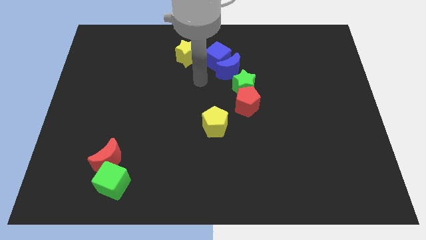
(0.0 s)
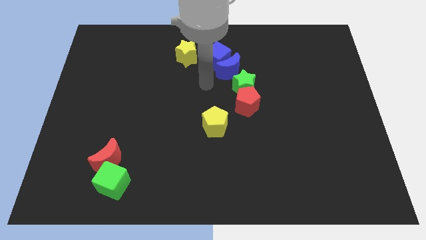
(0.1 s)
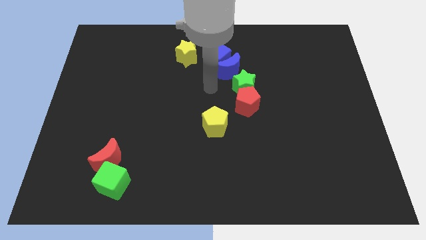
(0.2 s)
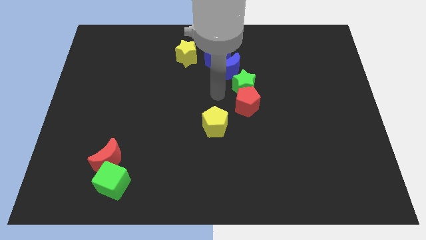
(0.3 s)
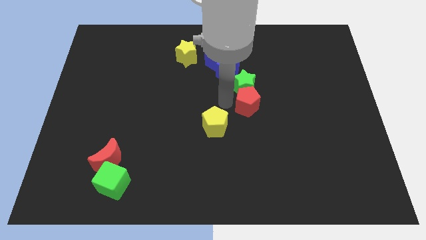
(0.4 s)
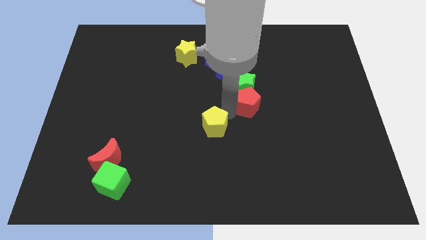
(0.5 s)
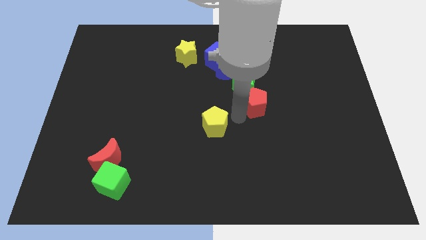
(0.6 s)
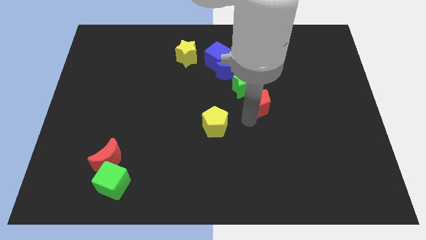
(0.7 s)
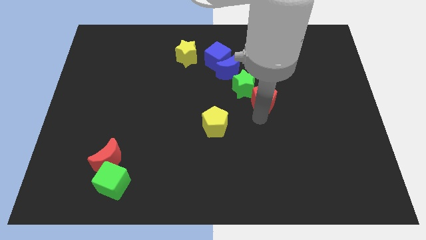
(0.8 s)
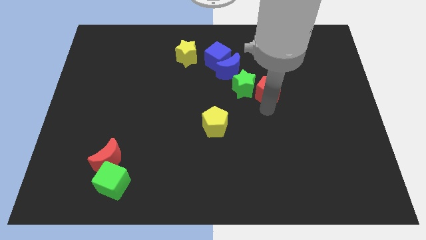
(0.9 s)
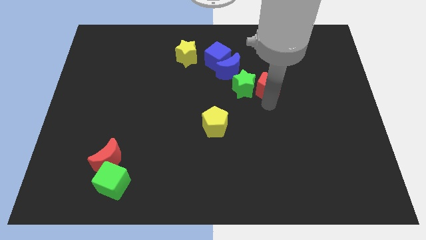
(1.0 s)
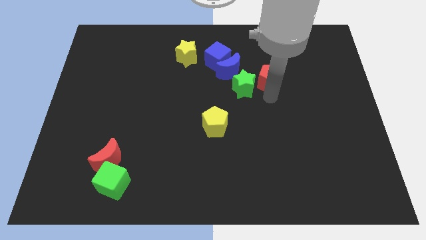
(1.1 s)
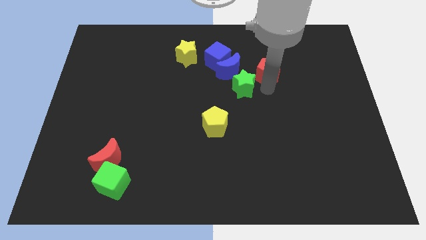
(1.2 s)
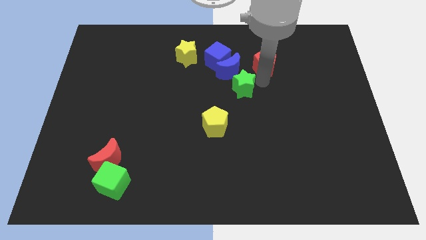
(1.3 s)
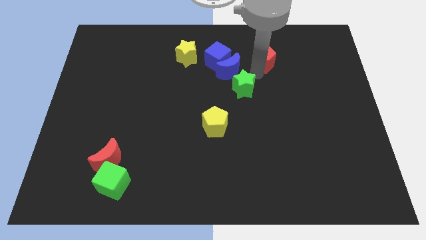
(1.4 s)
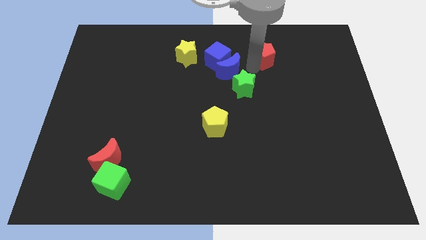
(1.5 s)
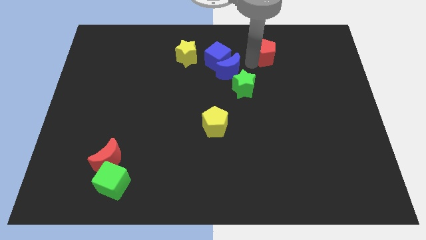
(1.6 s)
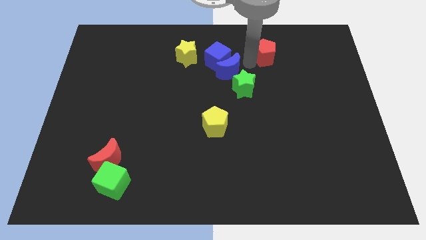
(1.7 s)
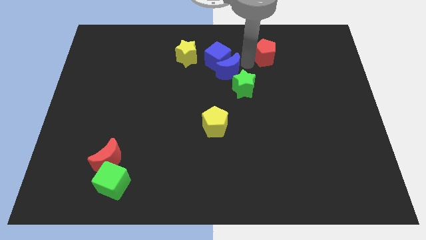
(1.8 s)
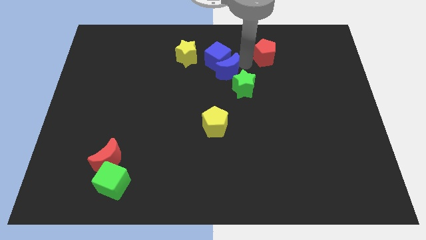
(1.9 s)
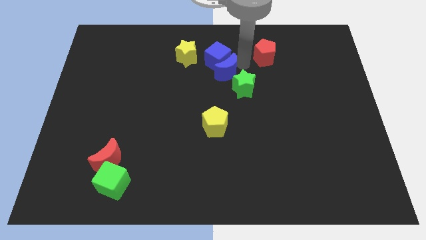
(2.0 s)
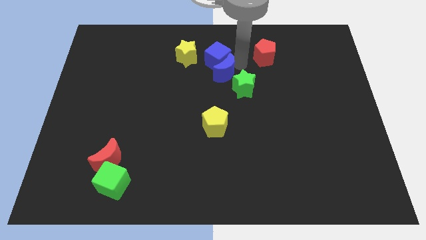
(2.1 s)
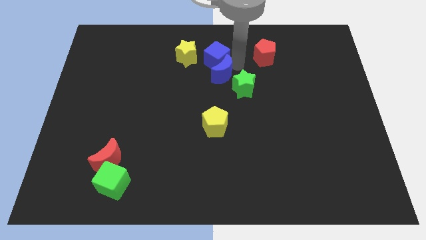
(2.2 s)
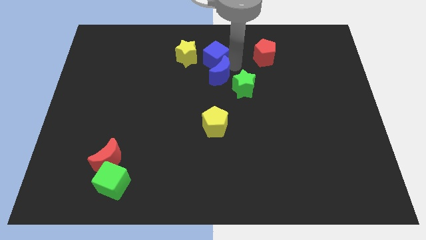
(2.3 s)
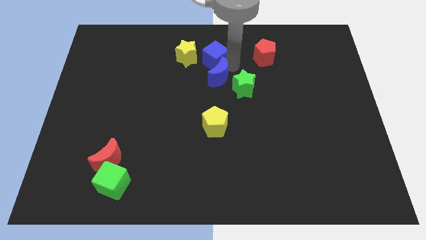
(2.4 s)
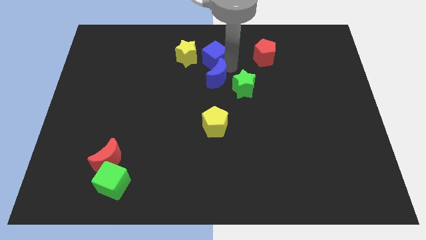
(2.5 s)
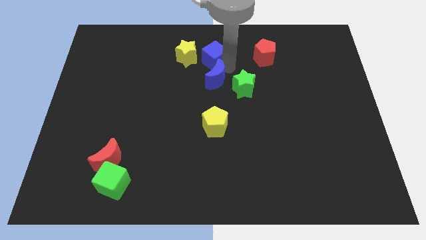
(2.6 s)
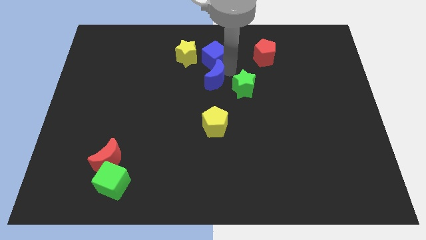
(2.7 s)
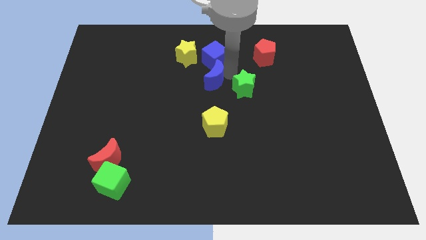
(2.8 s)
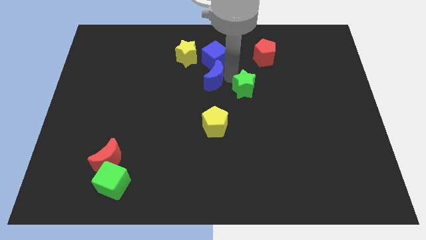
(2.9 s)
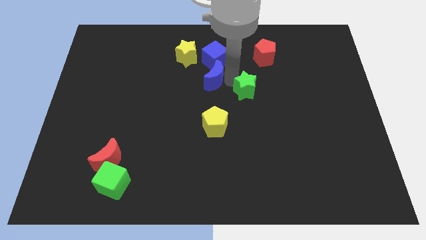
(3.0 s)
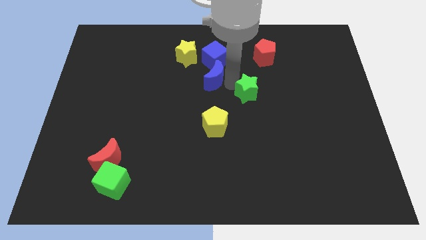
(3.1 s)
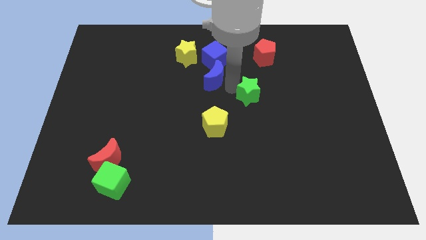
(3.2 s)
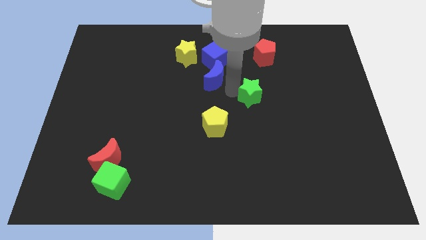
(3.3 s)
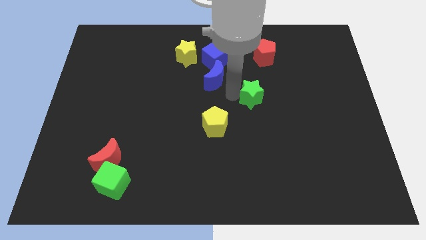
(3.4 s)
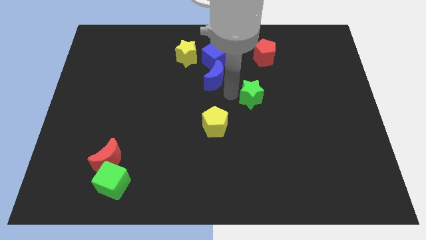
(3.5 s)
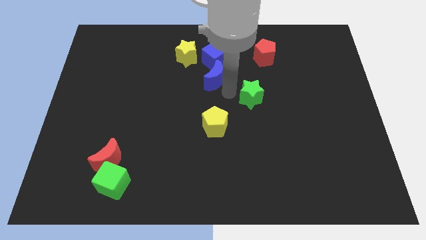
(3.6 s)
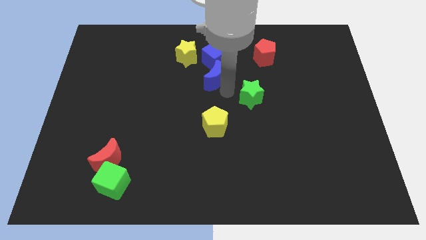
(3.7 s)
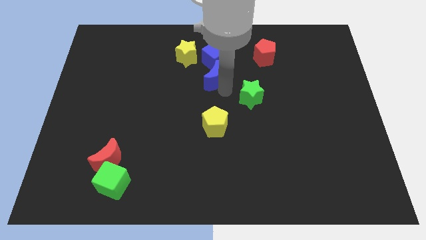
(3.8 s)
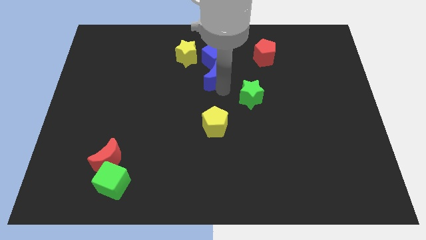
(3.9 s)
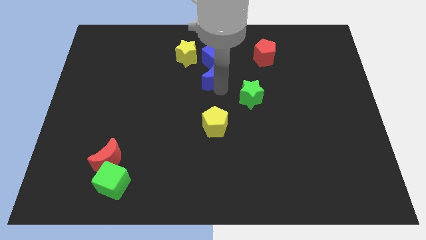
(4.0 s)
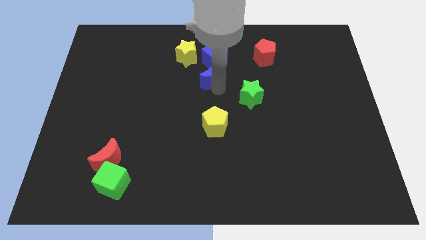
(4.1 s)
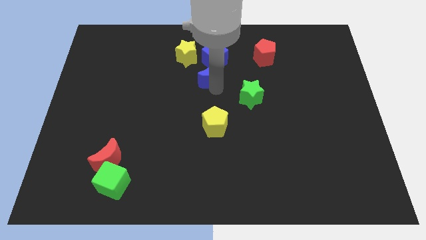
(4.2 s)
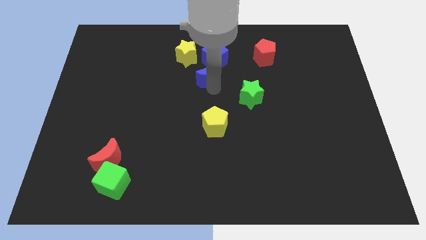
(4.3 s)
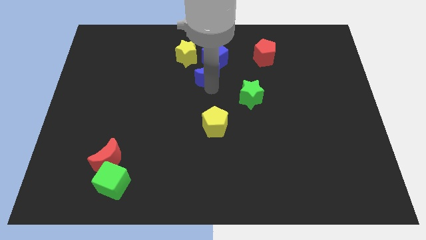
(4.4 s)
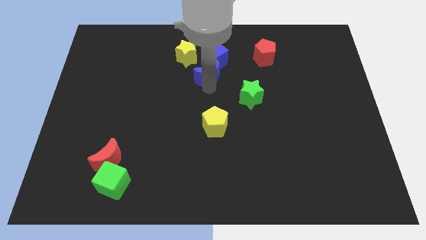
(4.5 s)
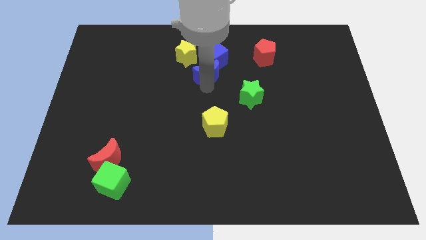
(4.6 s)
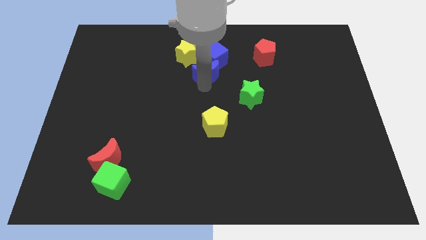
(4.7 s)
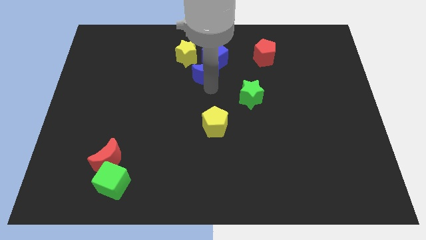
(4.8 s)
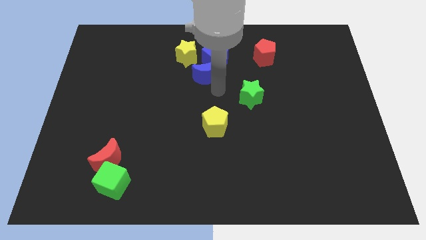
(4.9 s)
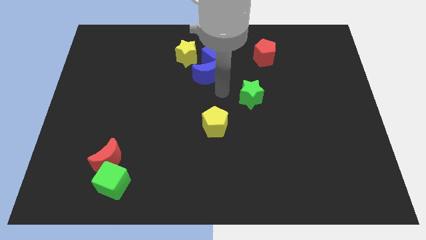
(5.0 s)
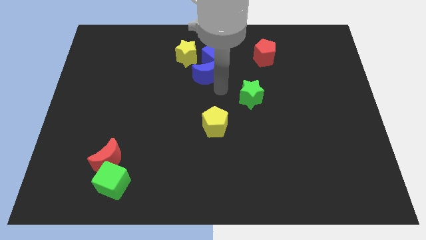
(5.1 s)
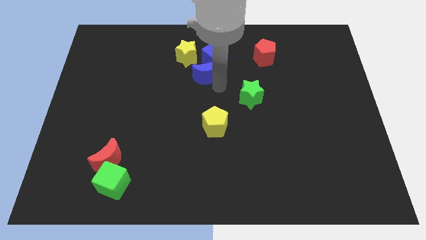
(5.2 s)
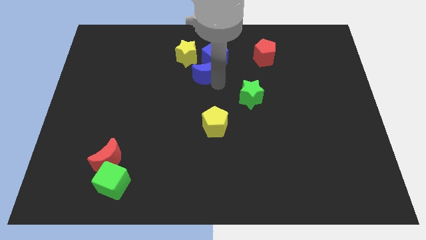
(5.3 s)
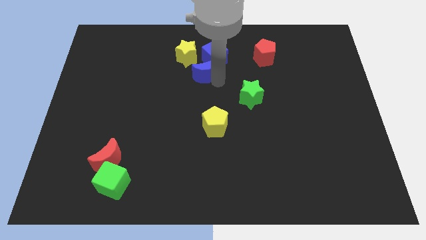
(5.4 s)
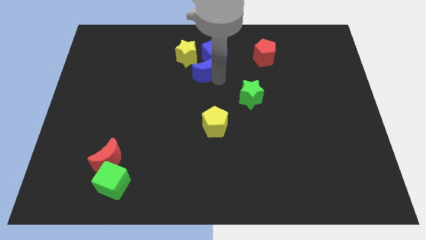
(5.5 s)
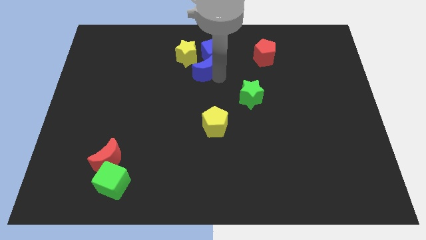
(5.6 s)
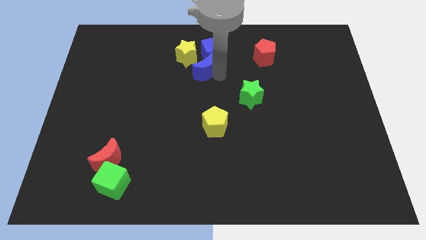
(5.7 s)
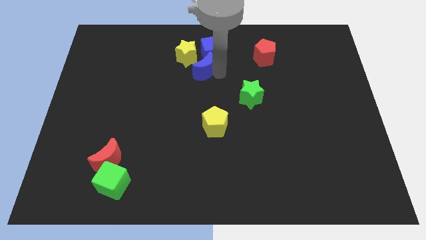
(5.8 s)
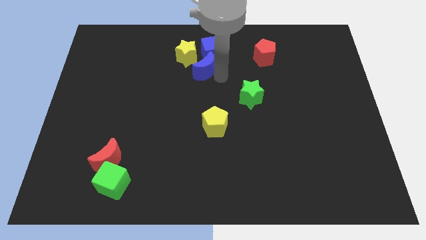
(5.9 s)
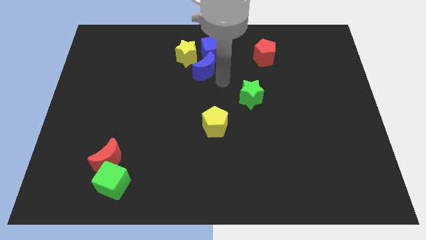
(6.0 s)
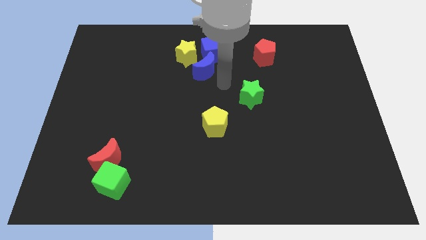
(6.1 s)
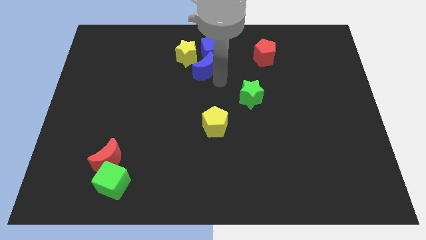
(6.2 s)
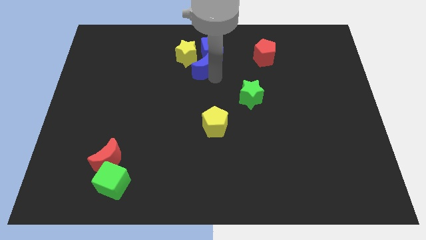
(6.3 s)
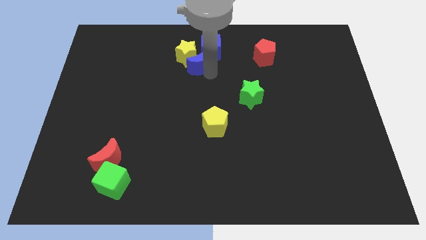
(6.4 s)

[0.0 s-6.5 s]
slide the blue moon towards the yellow star
